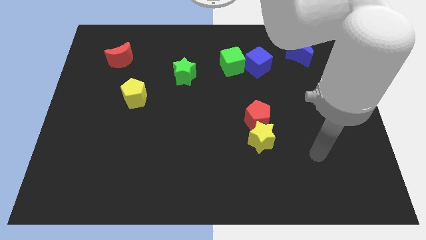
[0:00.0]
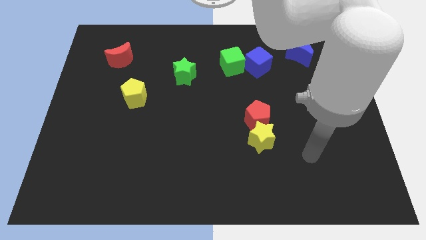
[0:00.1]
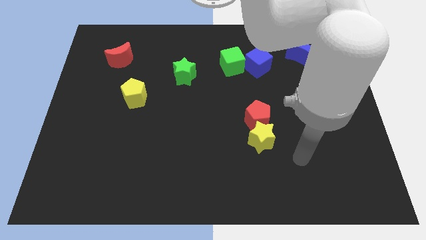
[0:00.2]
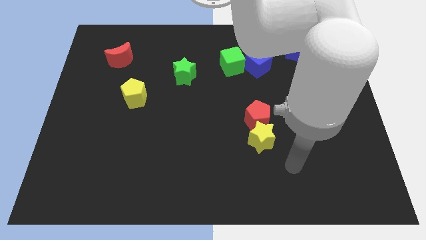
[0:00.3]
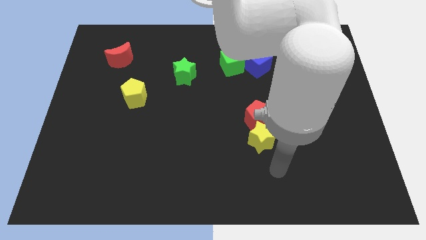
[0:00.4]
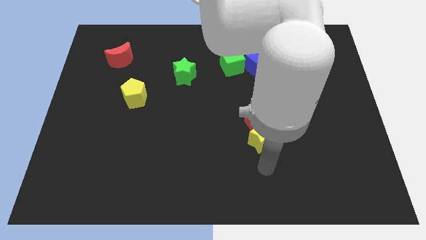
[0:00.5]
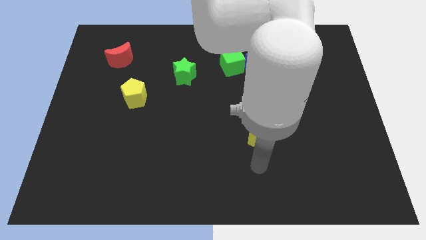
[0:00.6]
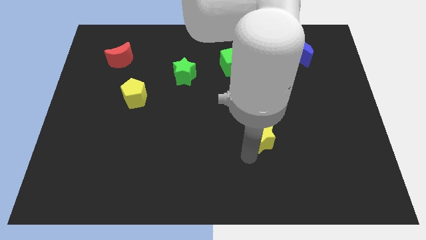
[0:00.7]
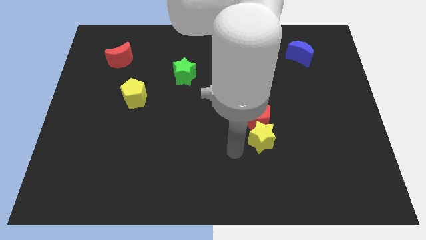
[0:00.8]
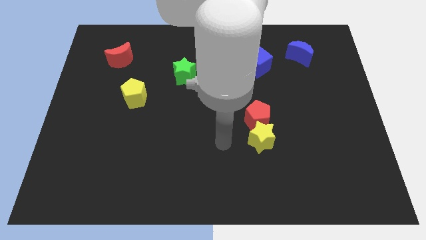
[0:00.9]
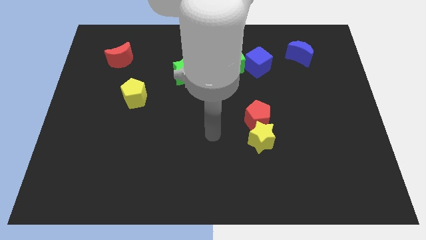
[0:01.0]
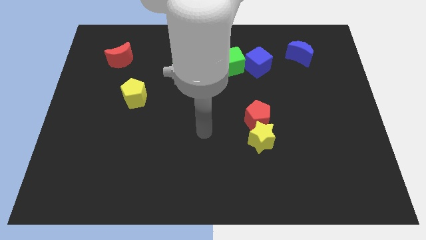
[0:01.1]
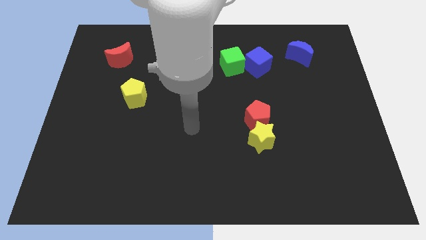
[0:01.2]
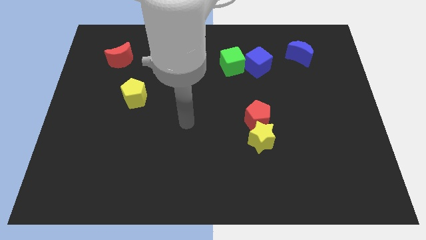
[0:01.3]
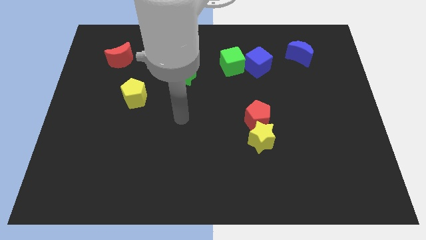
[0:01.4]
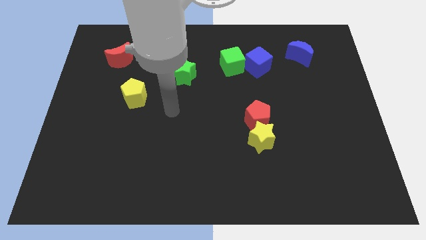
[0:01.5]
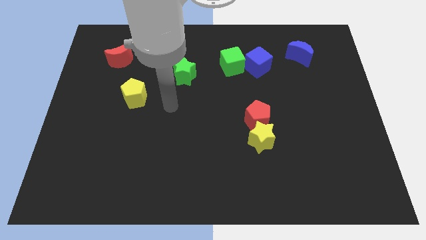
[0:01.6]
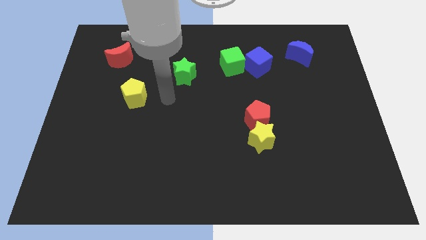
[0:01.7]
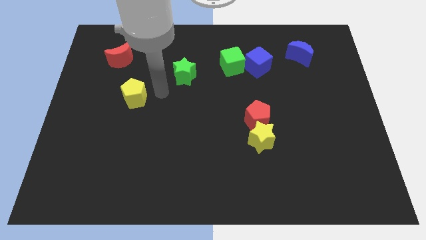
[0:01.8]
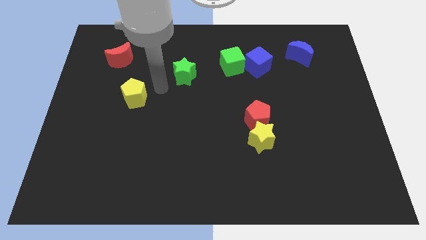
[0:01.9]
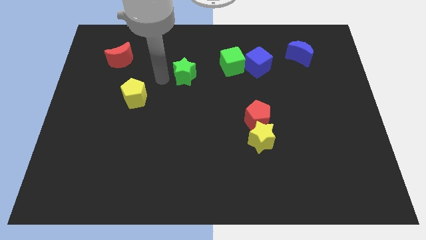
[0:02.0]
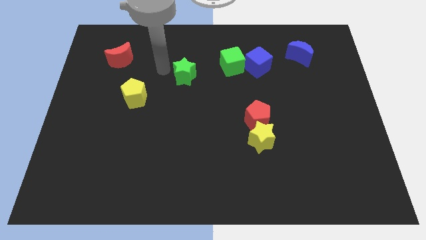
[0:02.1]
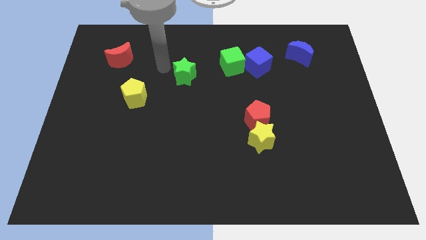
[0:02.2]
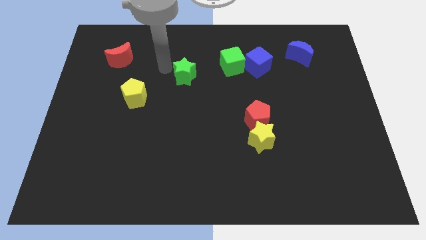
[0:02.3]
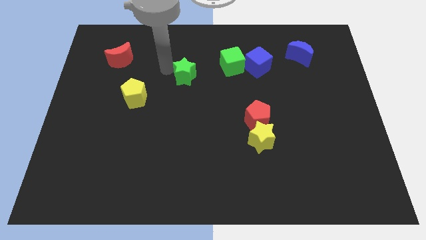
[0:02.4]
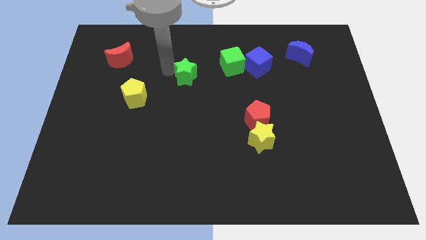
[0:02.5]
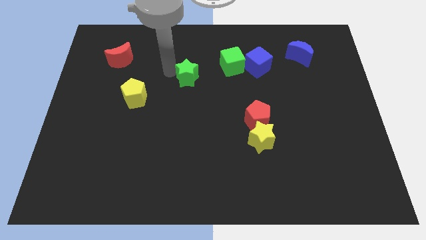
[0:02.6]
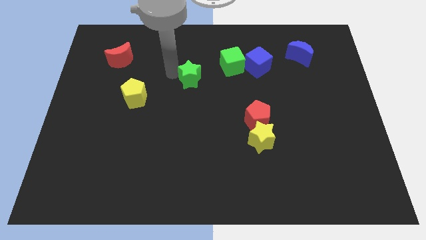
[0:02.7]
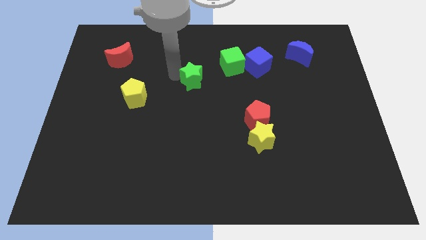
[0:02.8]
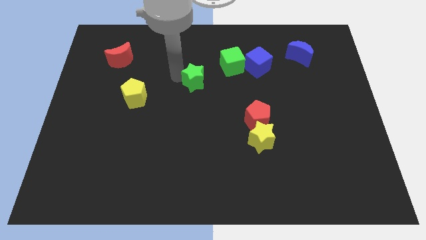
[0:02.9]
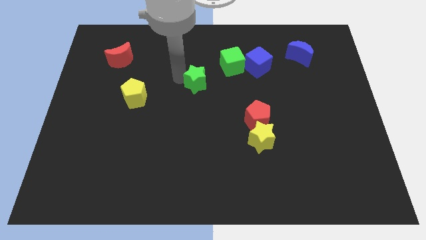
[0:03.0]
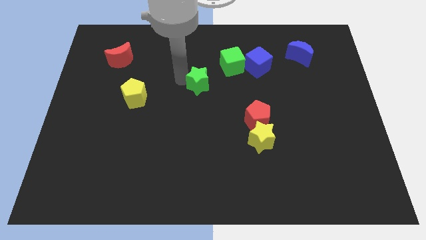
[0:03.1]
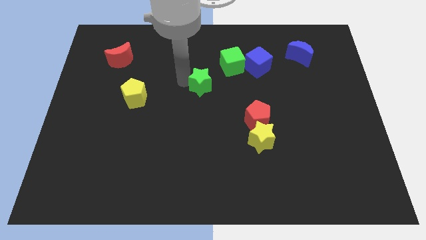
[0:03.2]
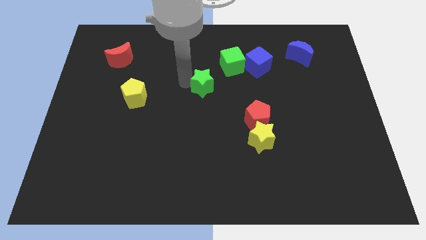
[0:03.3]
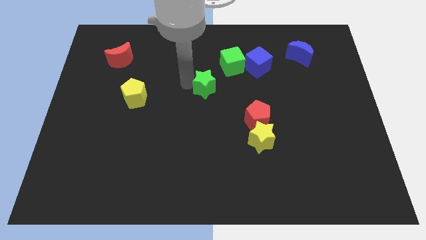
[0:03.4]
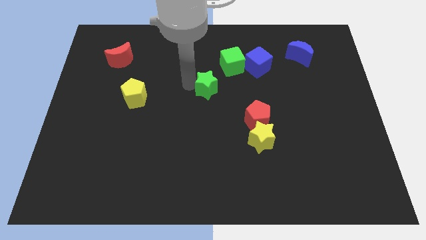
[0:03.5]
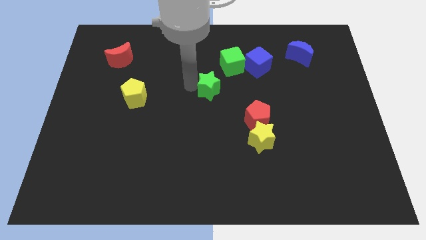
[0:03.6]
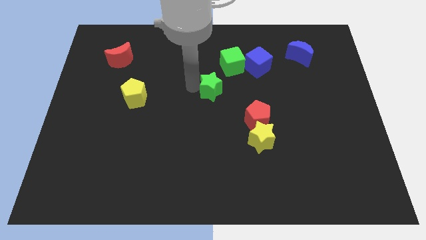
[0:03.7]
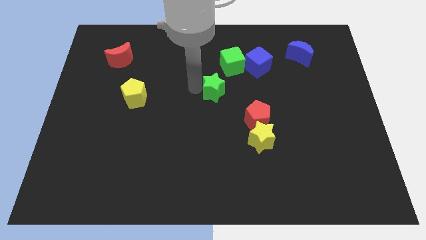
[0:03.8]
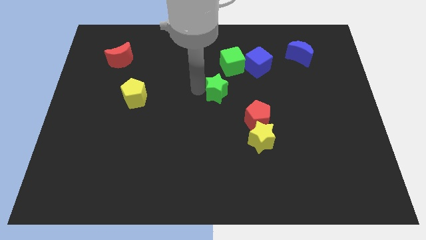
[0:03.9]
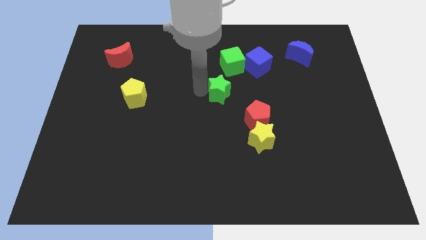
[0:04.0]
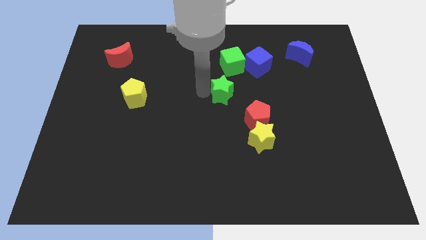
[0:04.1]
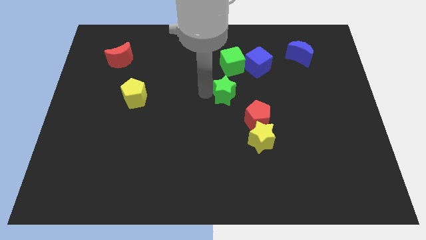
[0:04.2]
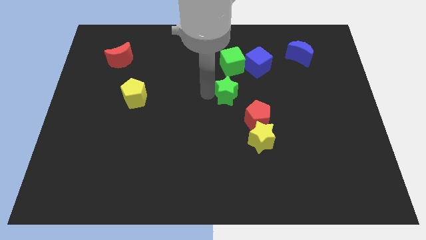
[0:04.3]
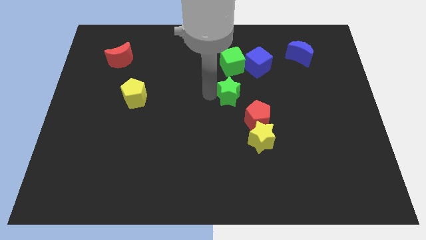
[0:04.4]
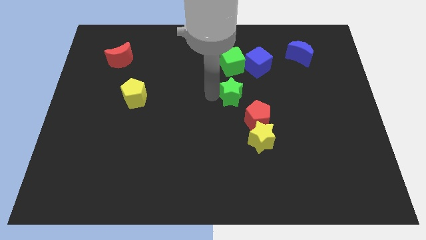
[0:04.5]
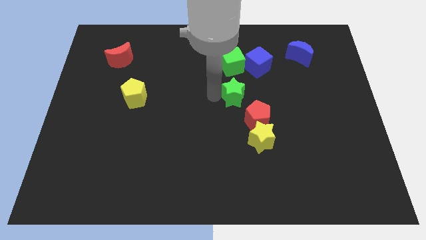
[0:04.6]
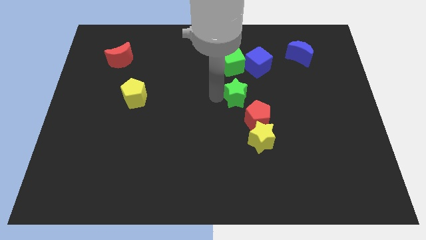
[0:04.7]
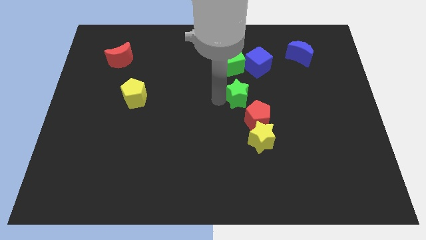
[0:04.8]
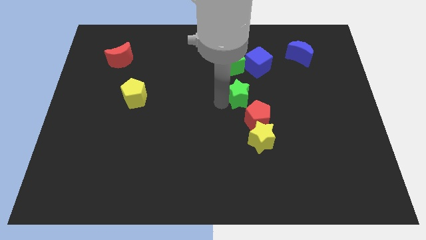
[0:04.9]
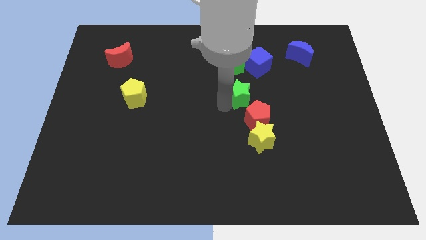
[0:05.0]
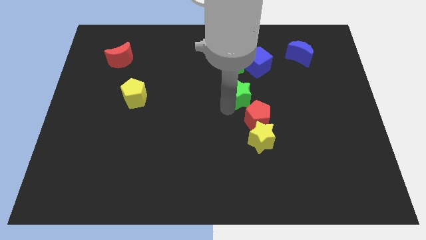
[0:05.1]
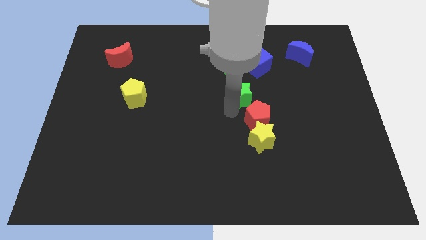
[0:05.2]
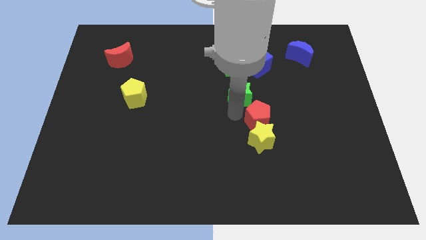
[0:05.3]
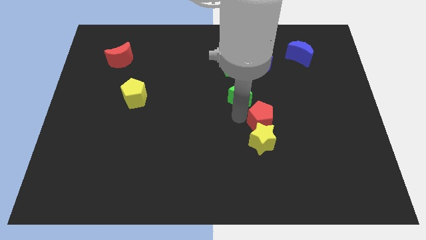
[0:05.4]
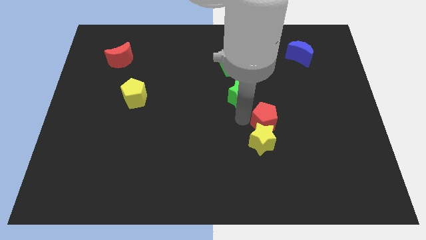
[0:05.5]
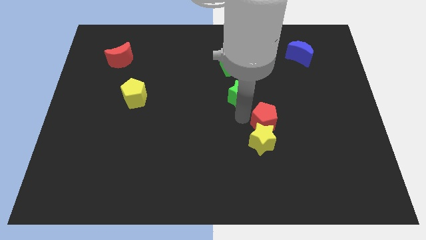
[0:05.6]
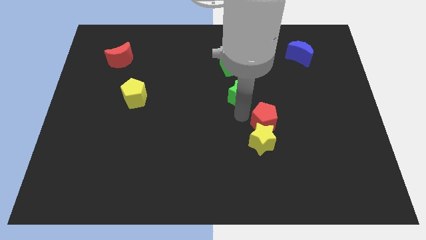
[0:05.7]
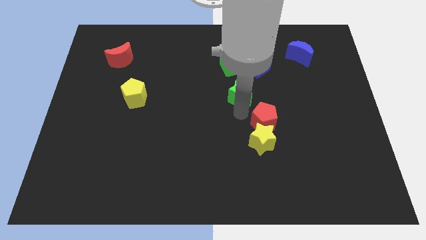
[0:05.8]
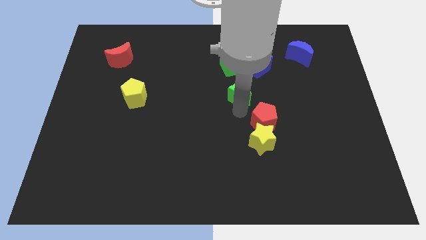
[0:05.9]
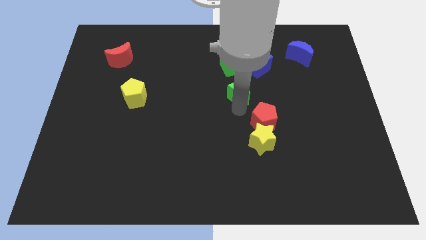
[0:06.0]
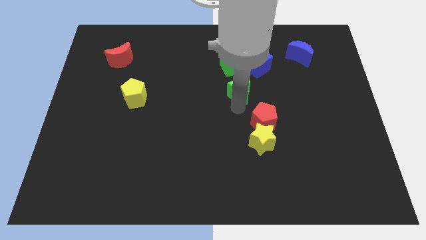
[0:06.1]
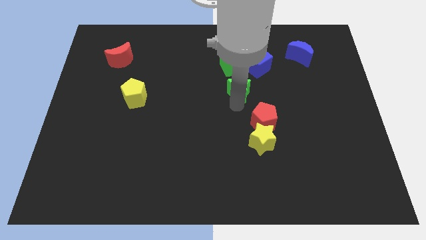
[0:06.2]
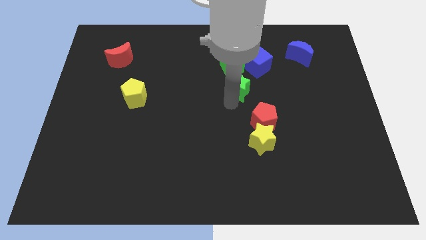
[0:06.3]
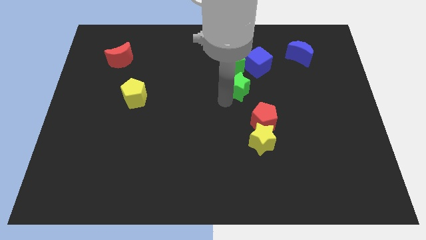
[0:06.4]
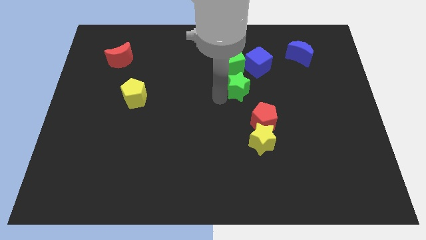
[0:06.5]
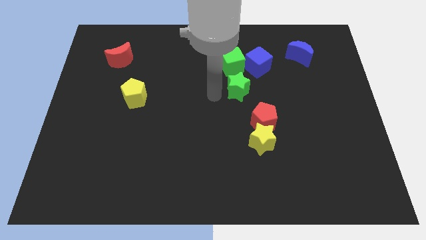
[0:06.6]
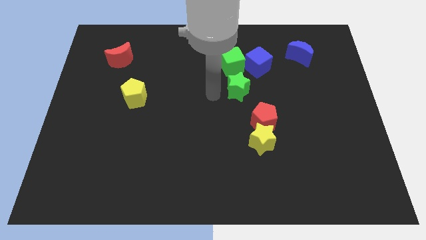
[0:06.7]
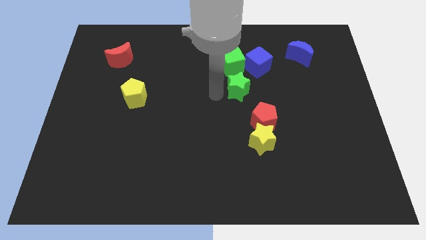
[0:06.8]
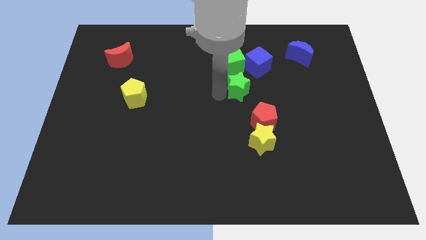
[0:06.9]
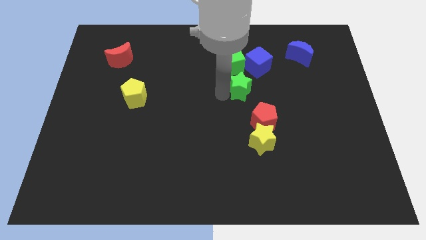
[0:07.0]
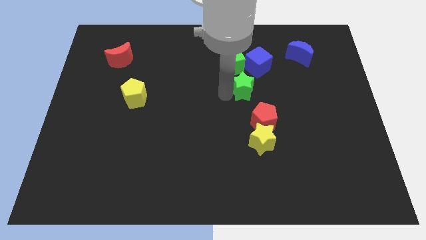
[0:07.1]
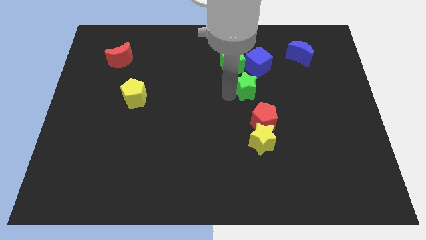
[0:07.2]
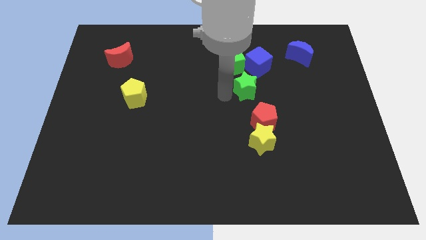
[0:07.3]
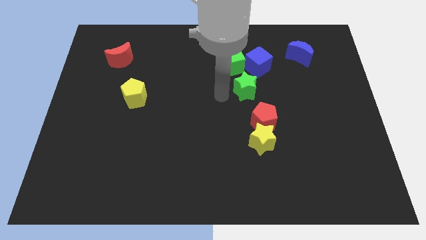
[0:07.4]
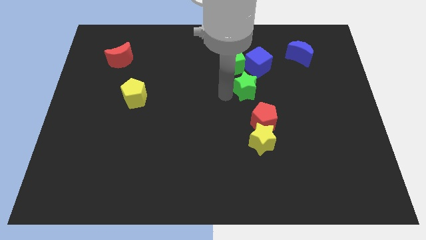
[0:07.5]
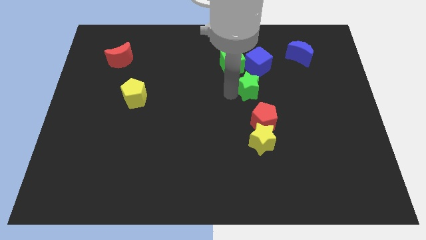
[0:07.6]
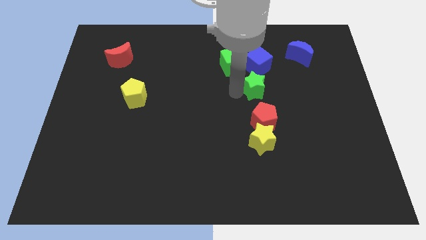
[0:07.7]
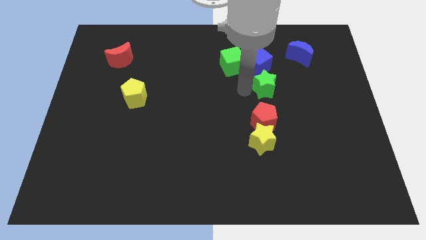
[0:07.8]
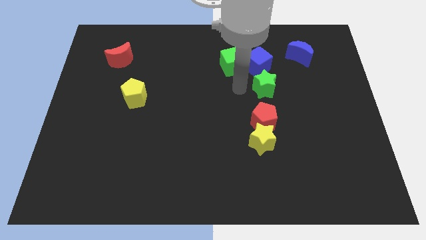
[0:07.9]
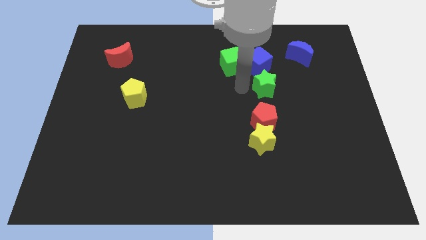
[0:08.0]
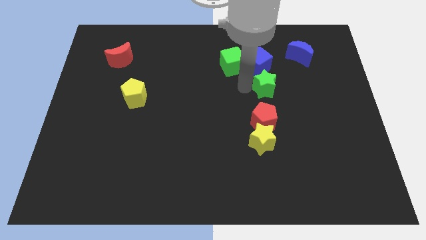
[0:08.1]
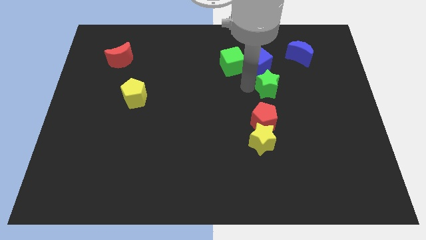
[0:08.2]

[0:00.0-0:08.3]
move the green star right
